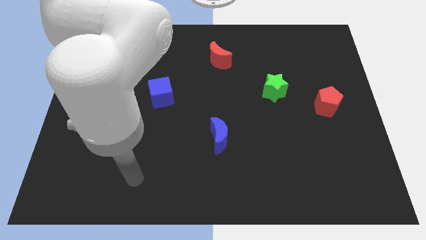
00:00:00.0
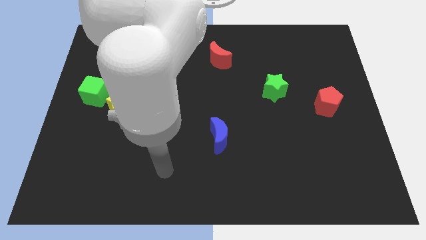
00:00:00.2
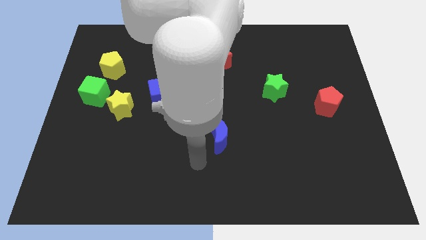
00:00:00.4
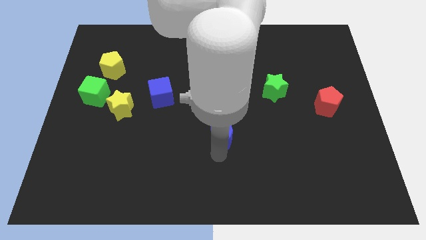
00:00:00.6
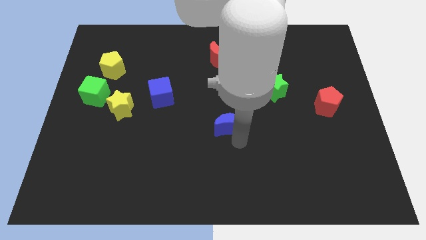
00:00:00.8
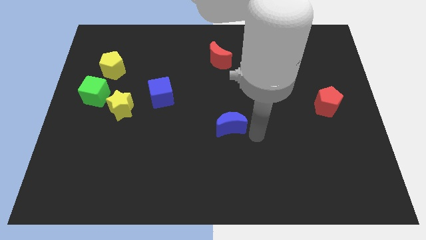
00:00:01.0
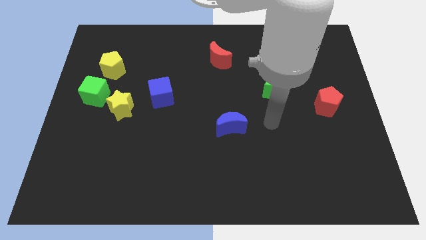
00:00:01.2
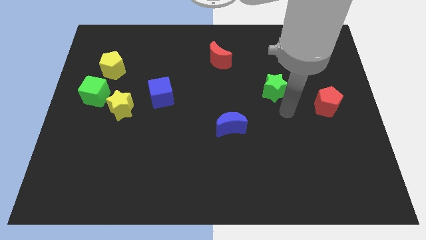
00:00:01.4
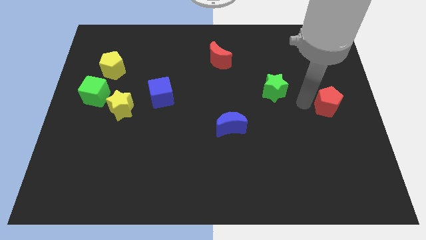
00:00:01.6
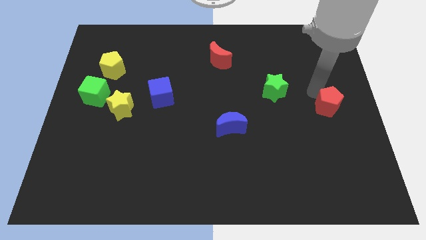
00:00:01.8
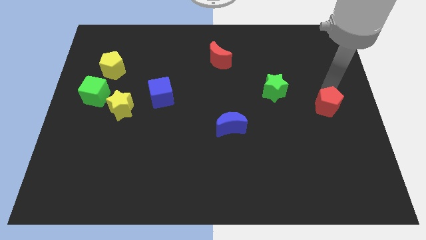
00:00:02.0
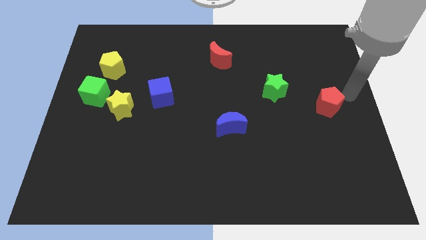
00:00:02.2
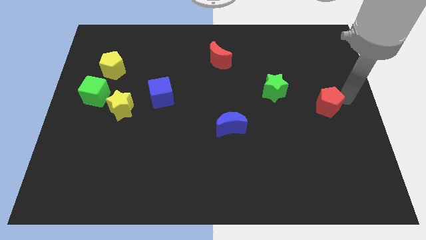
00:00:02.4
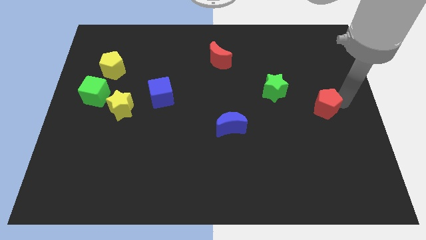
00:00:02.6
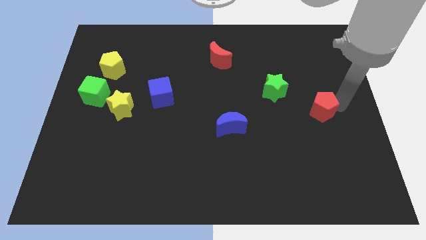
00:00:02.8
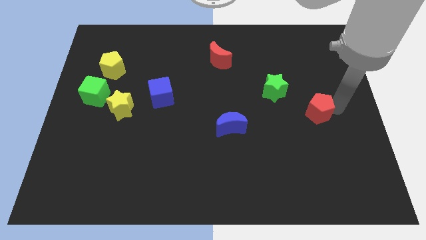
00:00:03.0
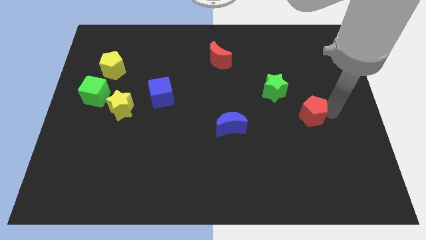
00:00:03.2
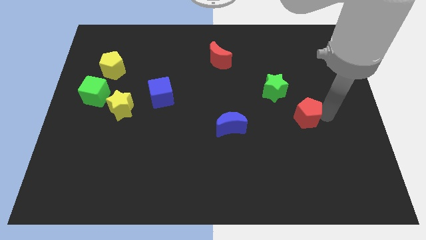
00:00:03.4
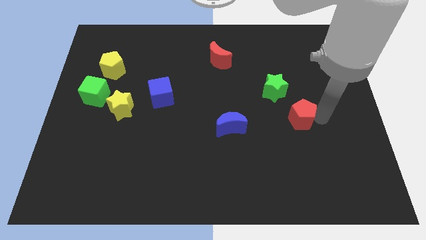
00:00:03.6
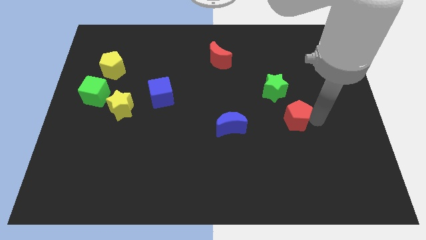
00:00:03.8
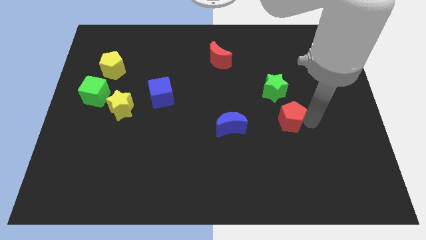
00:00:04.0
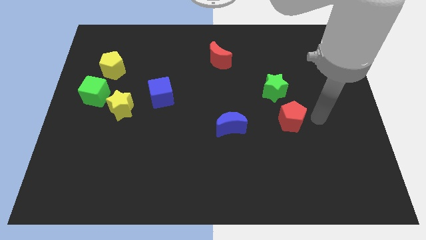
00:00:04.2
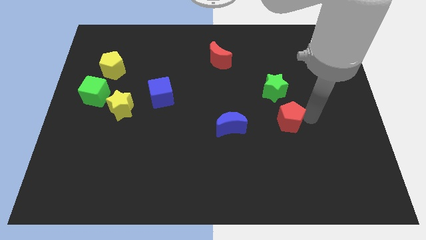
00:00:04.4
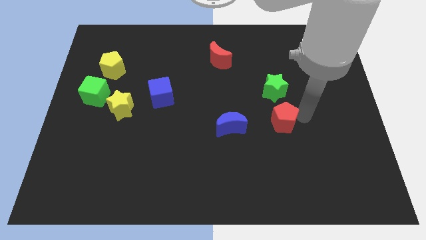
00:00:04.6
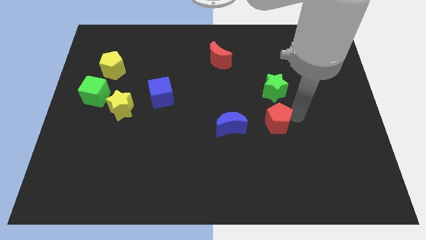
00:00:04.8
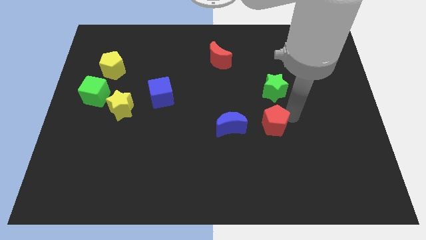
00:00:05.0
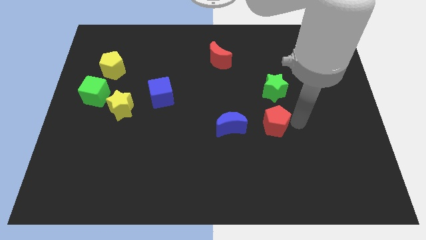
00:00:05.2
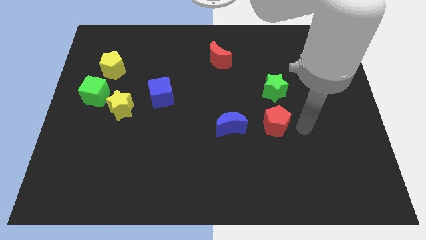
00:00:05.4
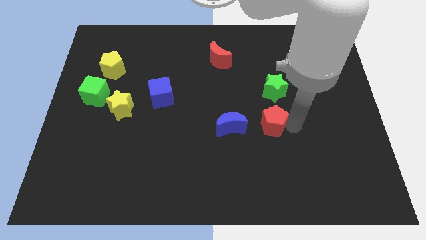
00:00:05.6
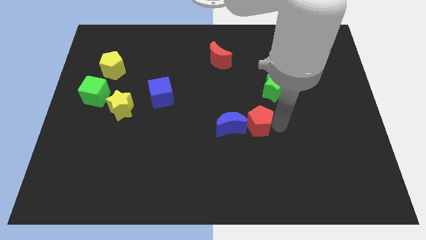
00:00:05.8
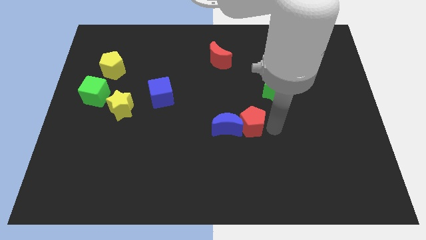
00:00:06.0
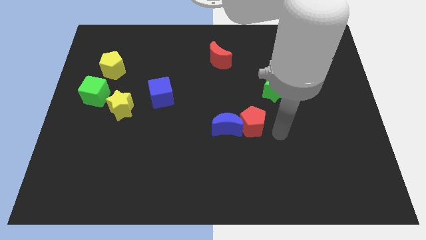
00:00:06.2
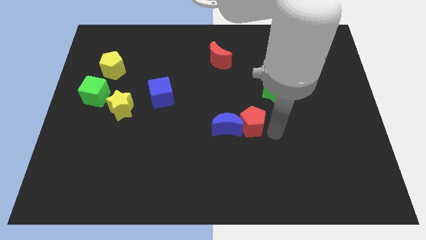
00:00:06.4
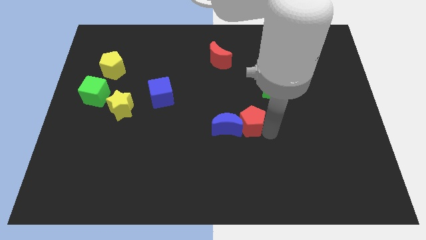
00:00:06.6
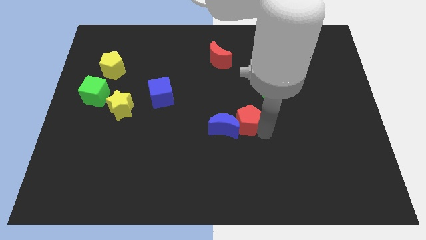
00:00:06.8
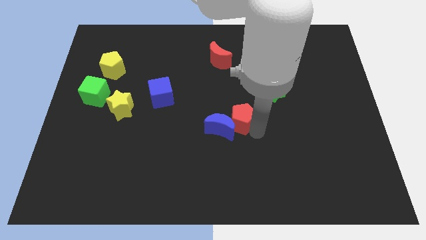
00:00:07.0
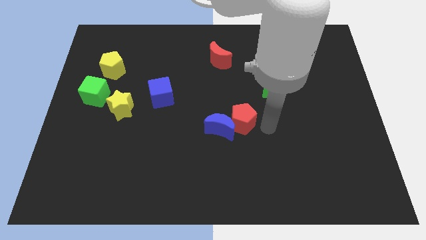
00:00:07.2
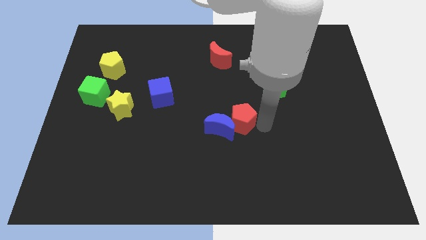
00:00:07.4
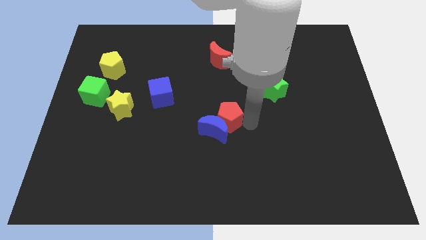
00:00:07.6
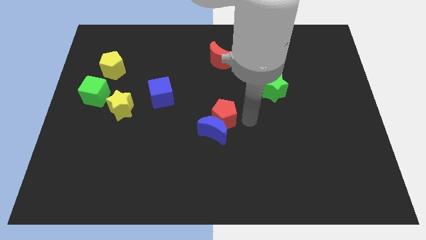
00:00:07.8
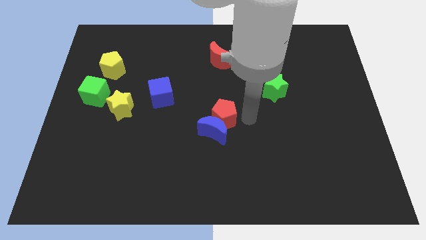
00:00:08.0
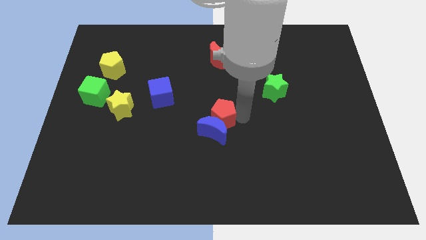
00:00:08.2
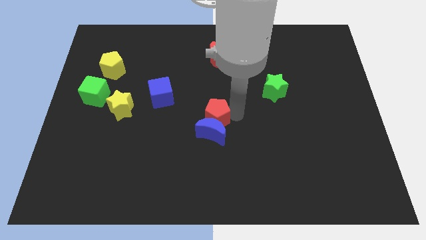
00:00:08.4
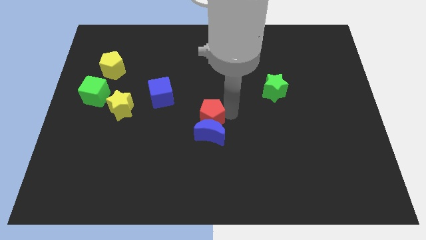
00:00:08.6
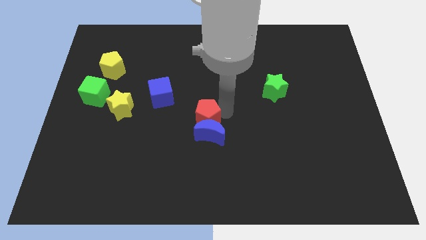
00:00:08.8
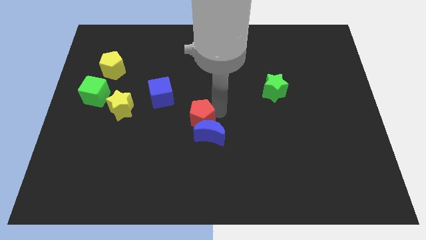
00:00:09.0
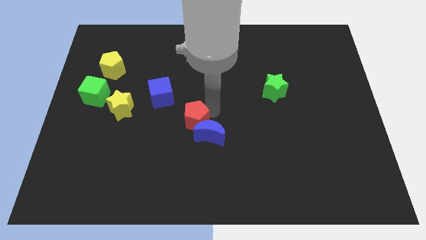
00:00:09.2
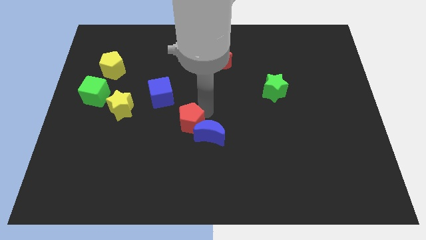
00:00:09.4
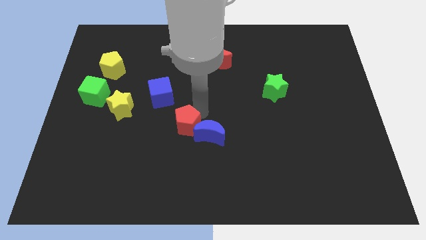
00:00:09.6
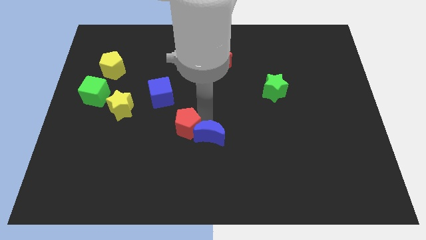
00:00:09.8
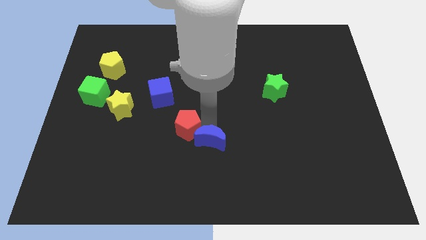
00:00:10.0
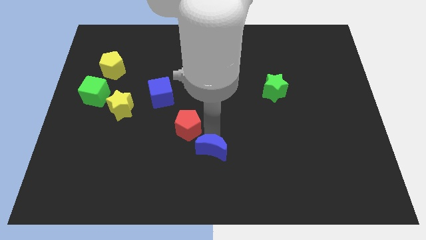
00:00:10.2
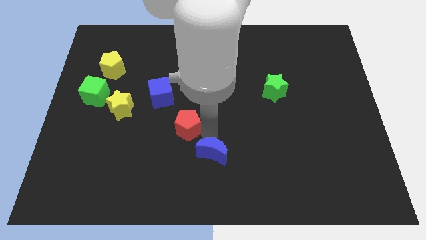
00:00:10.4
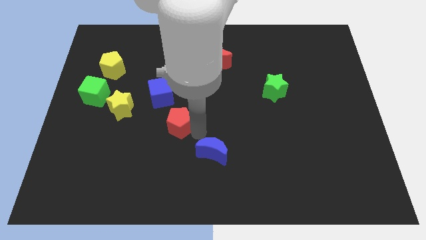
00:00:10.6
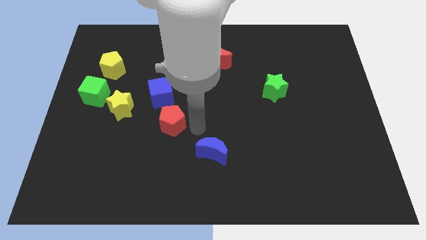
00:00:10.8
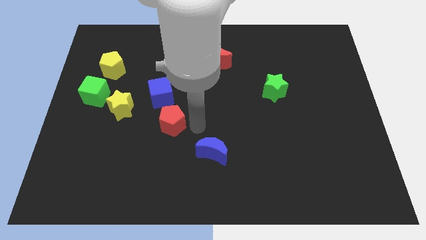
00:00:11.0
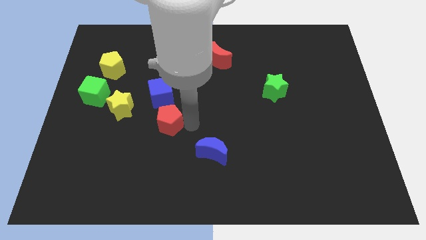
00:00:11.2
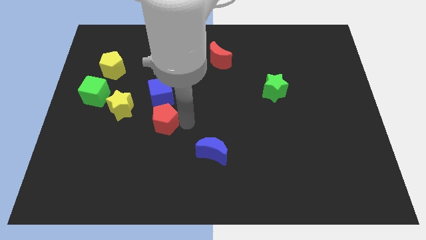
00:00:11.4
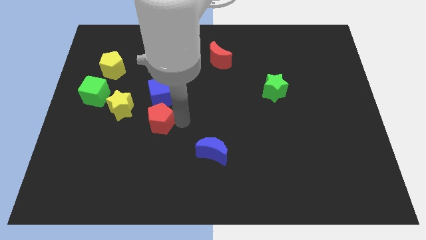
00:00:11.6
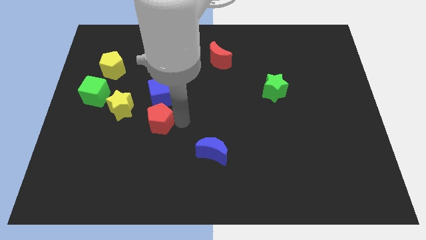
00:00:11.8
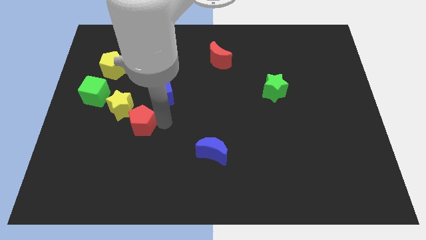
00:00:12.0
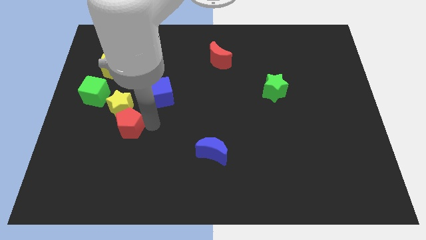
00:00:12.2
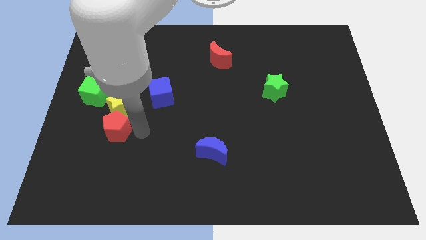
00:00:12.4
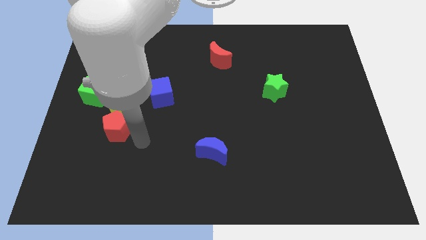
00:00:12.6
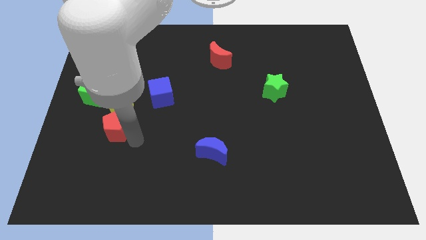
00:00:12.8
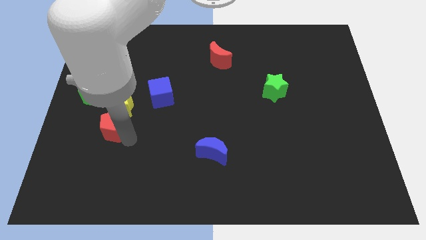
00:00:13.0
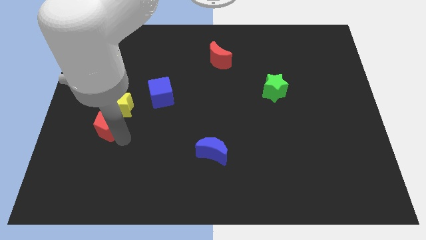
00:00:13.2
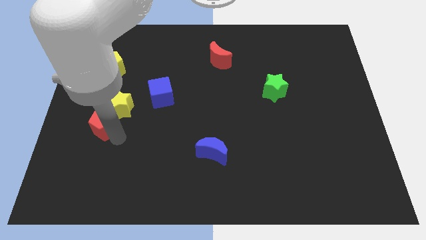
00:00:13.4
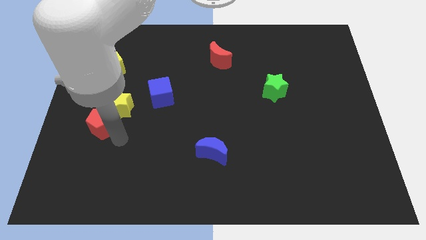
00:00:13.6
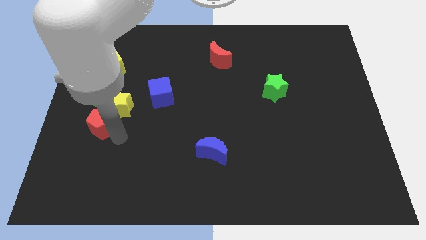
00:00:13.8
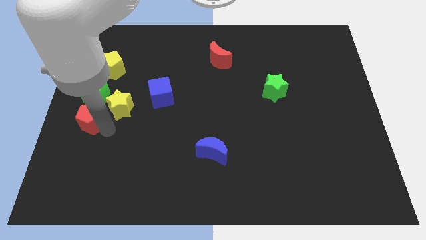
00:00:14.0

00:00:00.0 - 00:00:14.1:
slide the red pentagon to the left side of the board

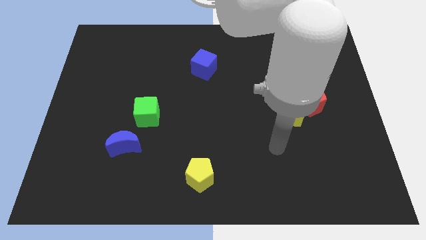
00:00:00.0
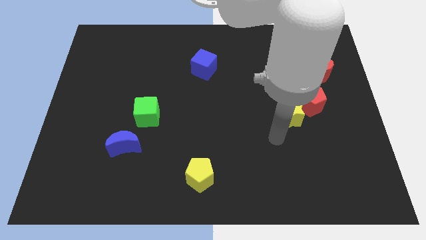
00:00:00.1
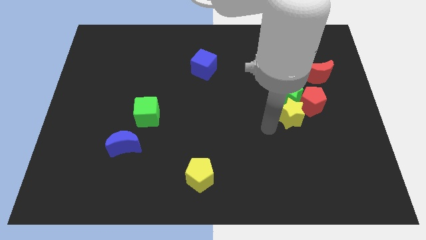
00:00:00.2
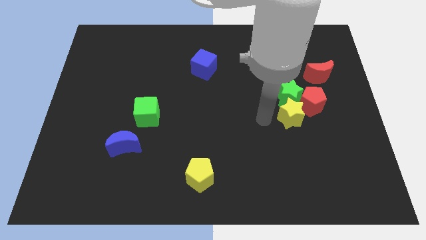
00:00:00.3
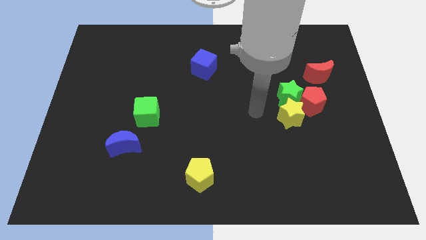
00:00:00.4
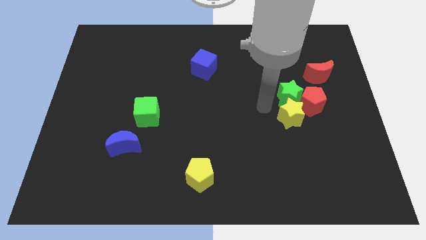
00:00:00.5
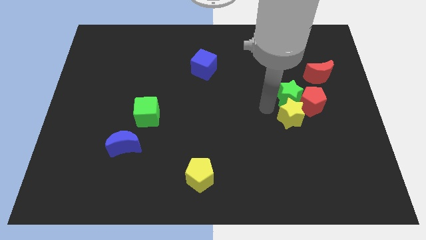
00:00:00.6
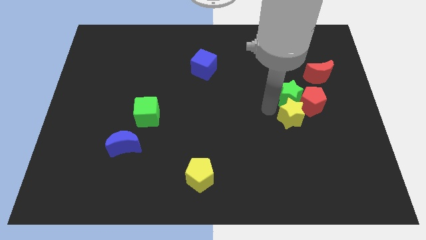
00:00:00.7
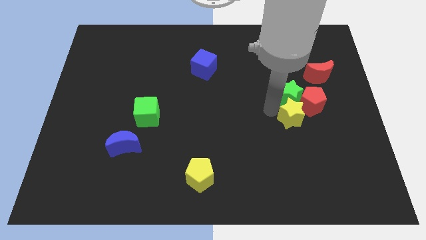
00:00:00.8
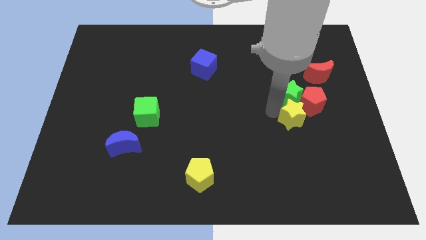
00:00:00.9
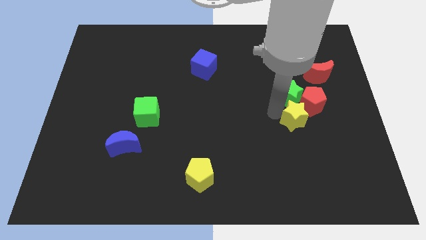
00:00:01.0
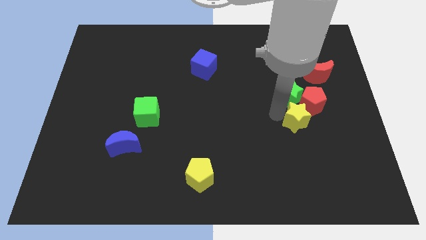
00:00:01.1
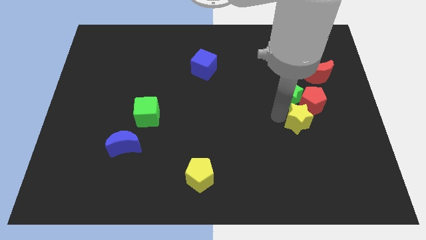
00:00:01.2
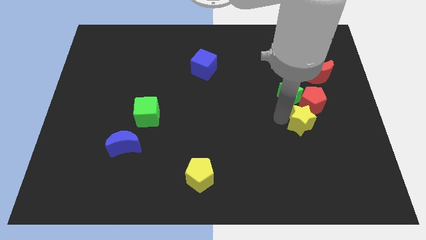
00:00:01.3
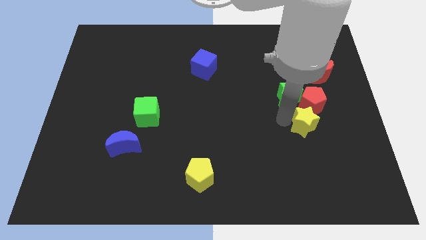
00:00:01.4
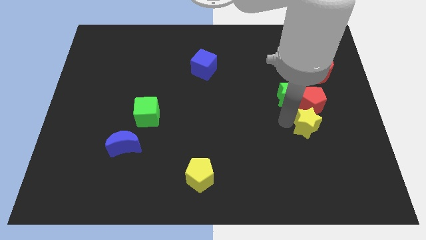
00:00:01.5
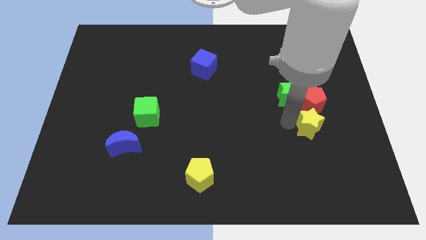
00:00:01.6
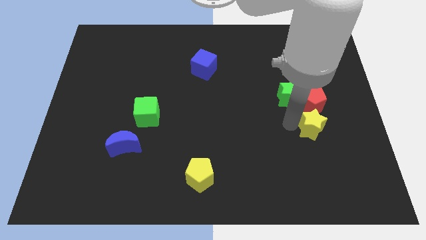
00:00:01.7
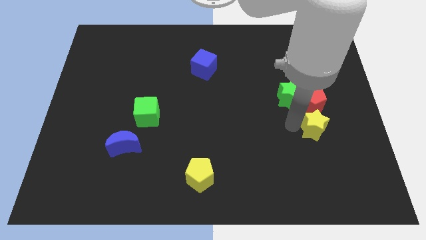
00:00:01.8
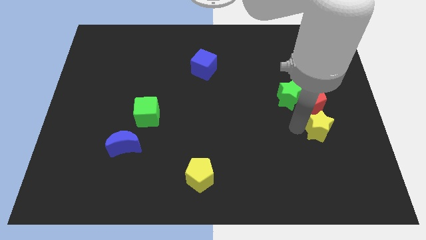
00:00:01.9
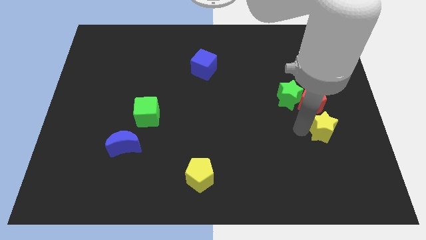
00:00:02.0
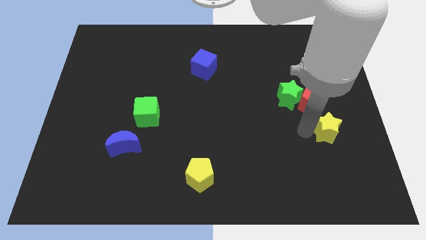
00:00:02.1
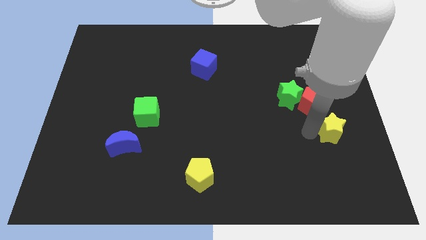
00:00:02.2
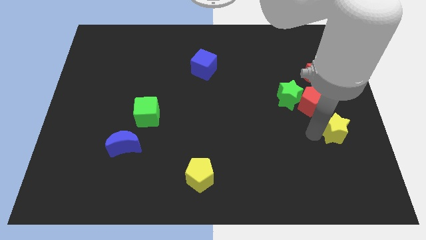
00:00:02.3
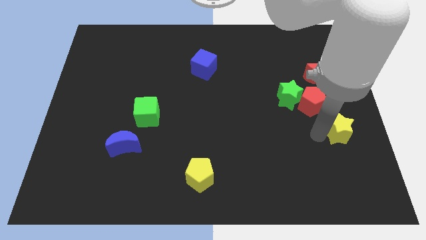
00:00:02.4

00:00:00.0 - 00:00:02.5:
move the yellow star to the right side of the board
